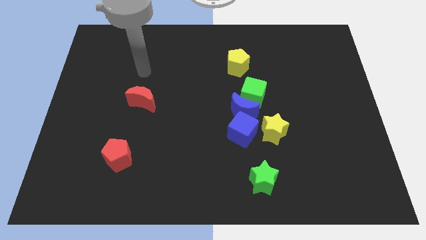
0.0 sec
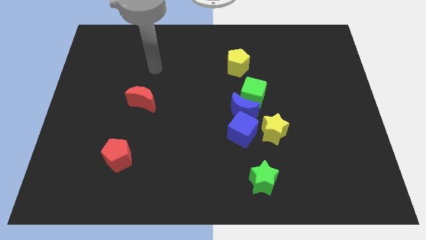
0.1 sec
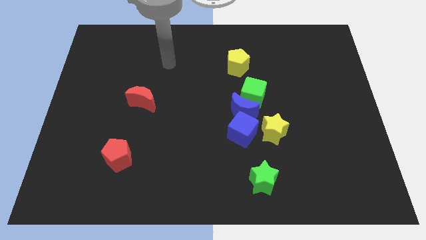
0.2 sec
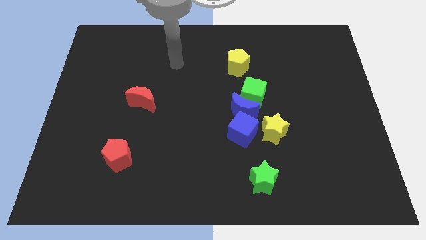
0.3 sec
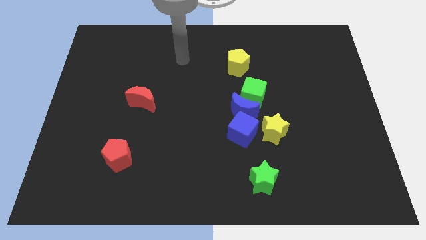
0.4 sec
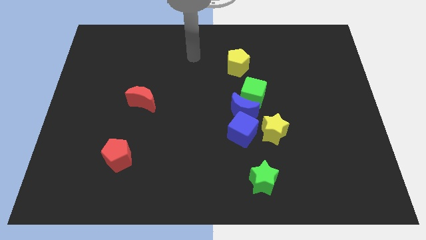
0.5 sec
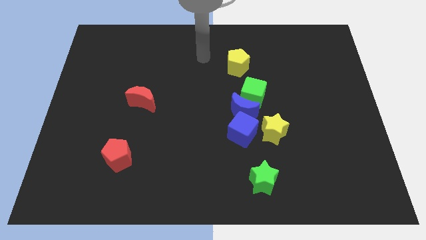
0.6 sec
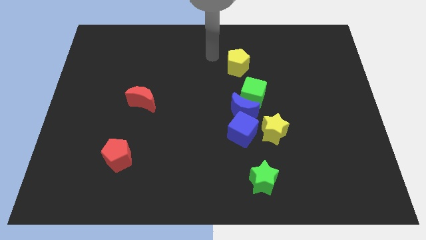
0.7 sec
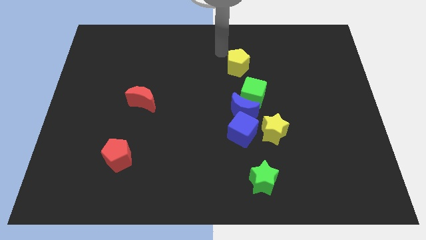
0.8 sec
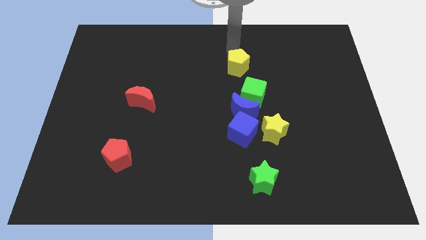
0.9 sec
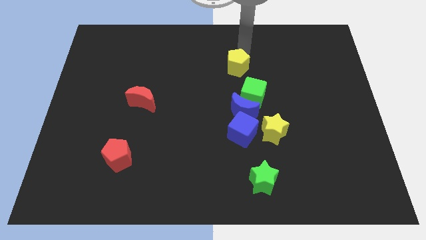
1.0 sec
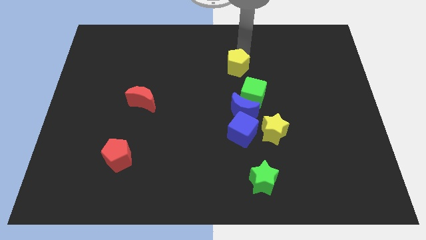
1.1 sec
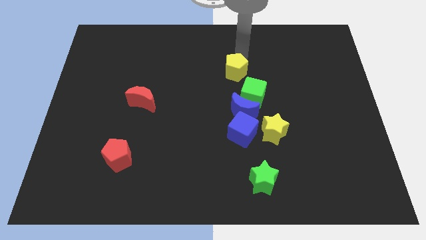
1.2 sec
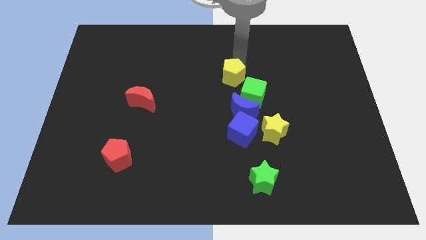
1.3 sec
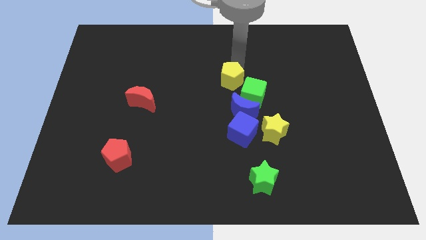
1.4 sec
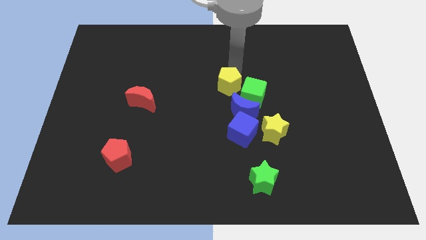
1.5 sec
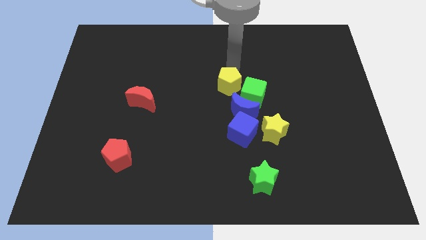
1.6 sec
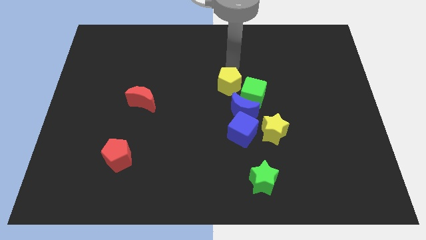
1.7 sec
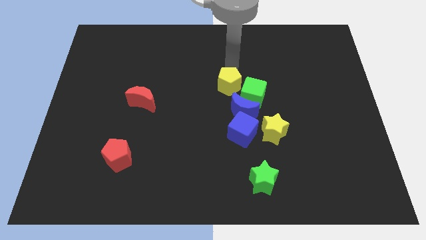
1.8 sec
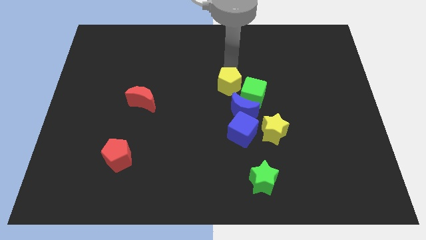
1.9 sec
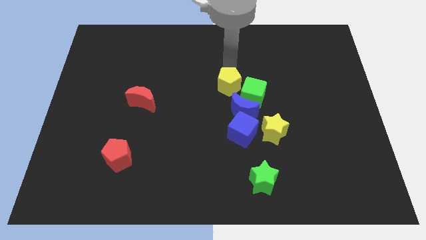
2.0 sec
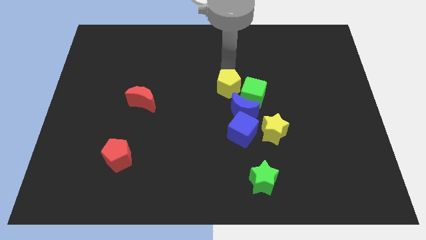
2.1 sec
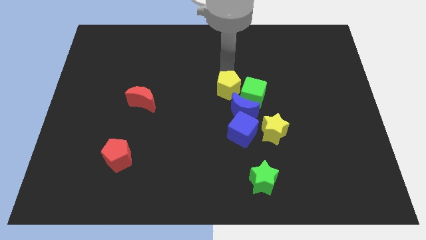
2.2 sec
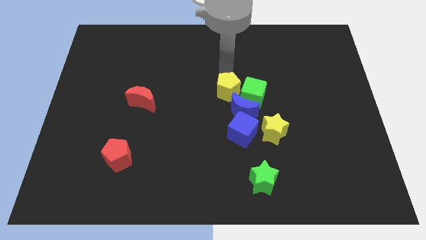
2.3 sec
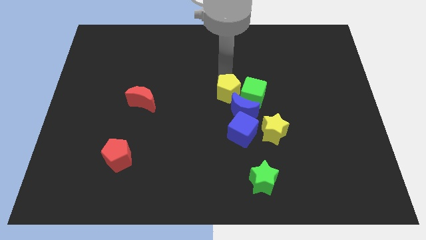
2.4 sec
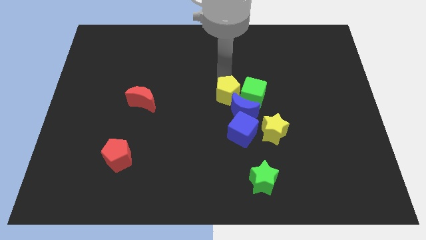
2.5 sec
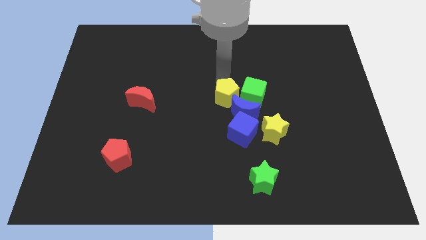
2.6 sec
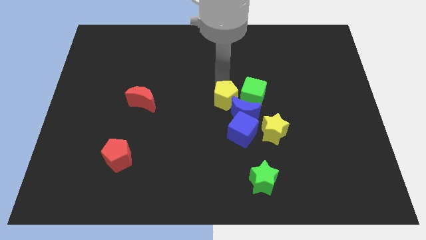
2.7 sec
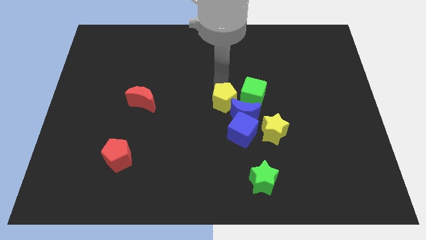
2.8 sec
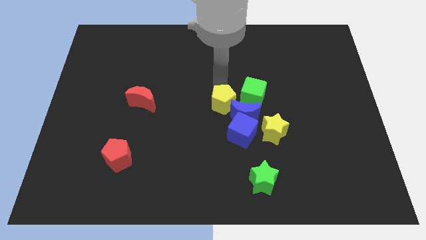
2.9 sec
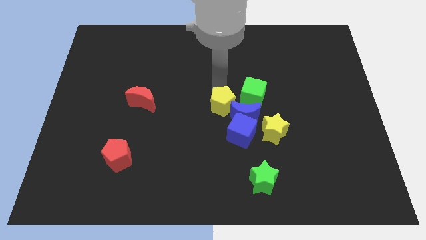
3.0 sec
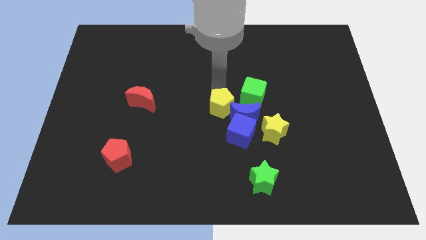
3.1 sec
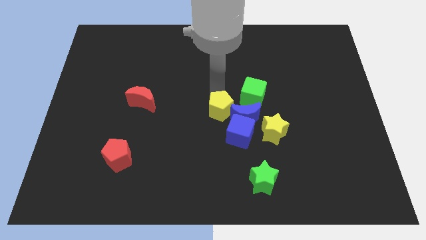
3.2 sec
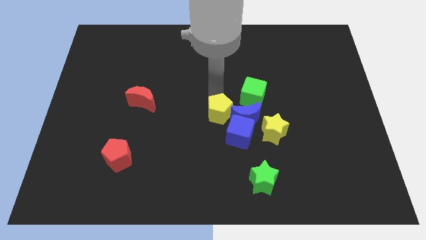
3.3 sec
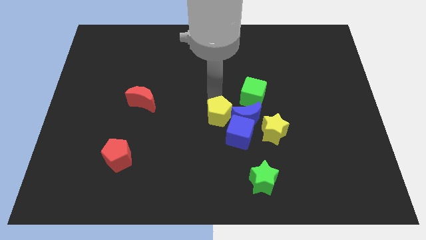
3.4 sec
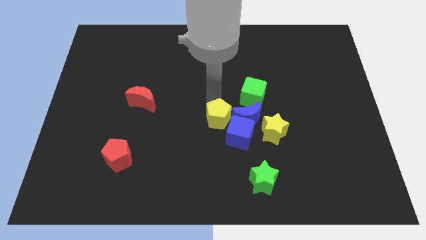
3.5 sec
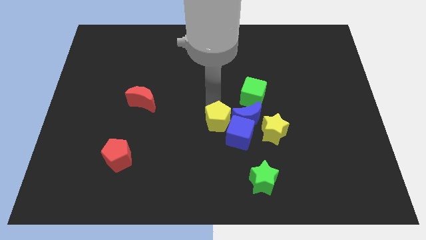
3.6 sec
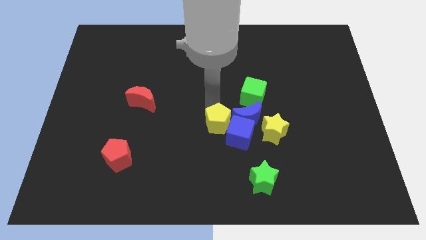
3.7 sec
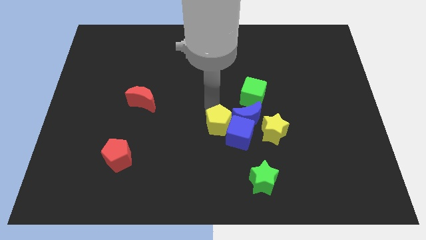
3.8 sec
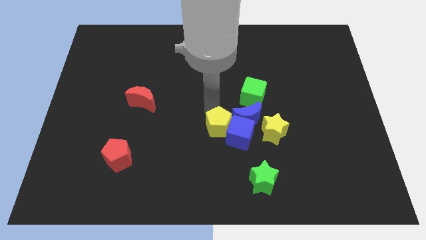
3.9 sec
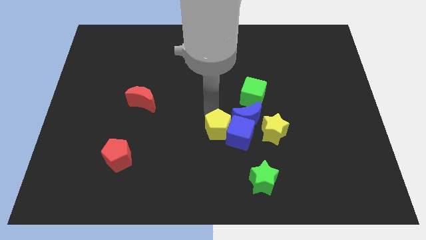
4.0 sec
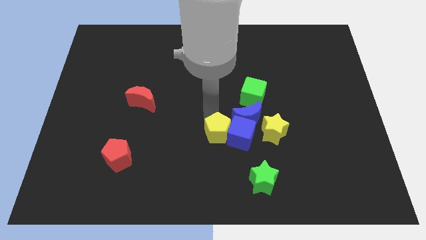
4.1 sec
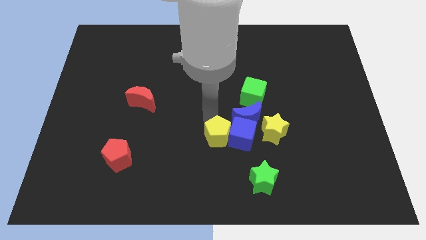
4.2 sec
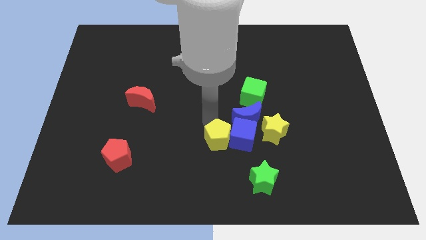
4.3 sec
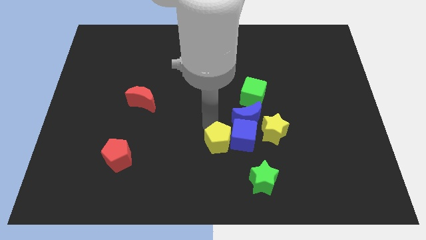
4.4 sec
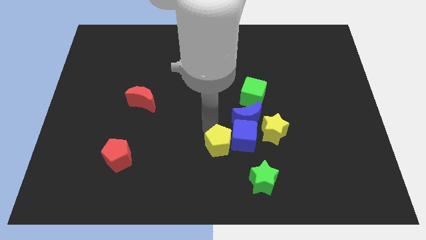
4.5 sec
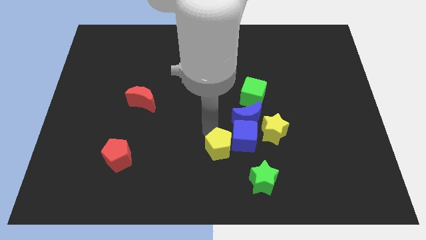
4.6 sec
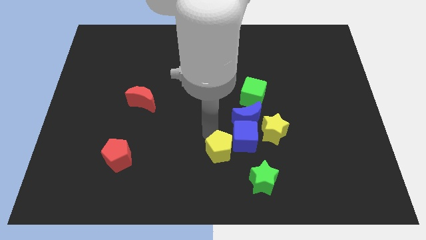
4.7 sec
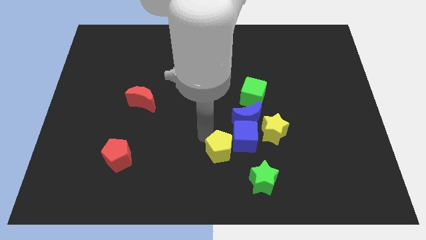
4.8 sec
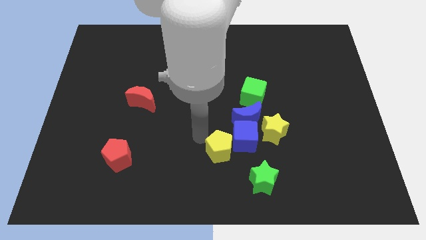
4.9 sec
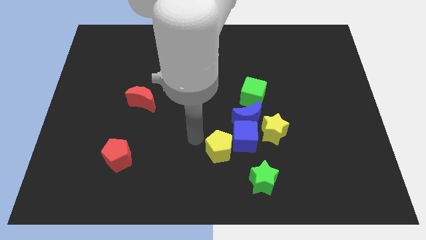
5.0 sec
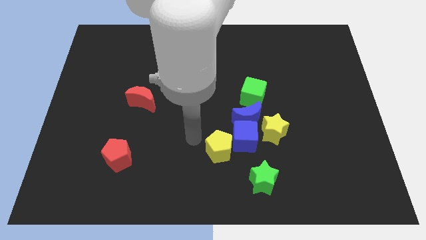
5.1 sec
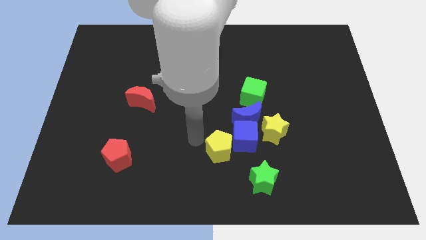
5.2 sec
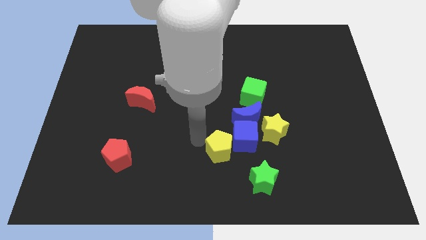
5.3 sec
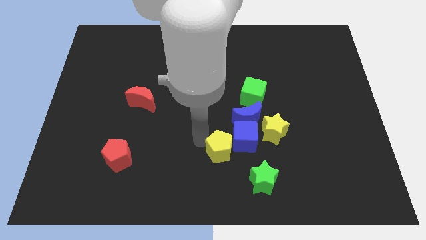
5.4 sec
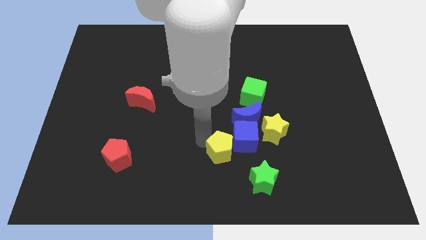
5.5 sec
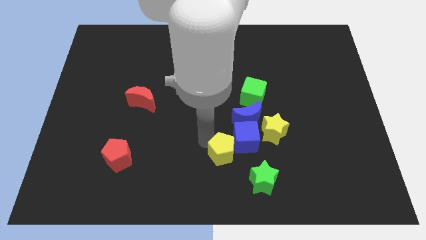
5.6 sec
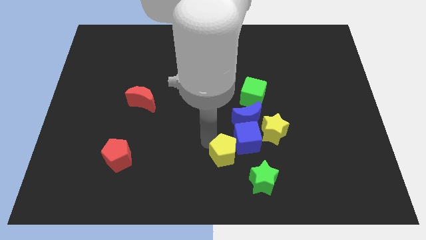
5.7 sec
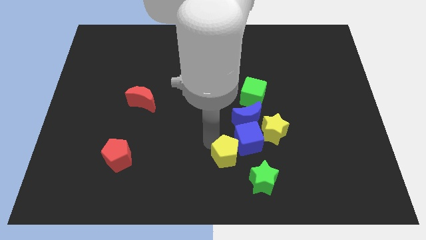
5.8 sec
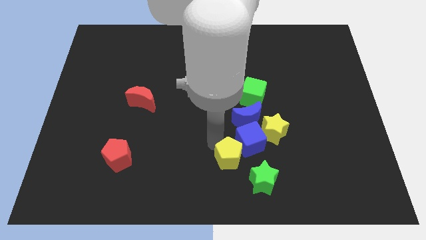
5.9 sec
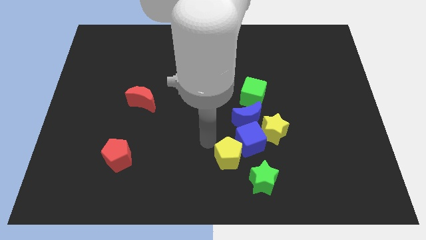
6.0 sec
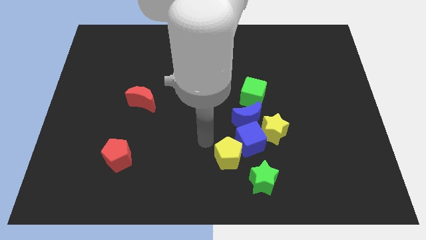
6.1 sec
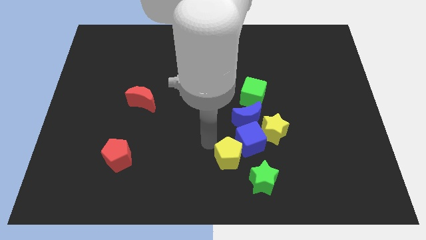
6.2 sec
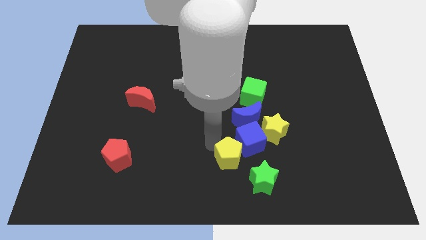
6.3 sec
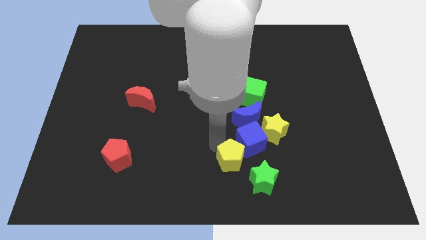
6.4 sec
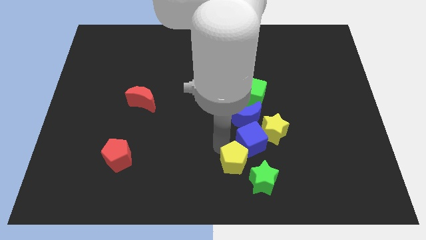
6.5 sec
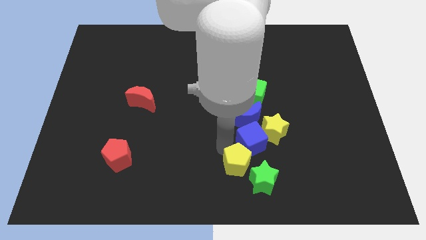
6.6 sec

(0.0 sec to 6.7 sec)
put the yellow pentagon to the green star
